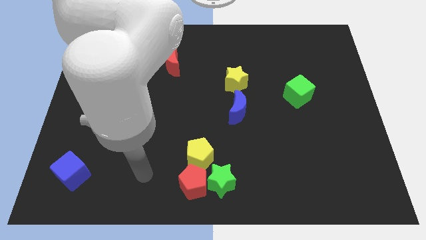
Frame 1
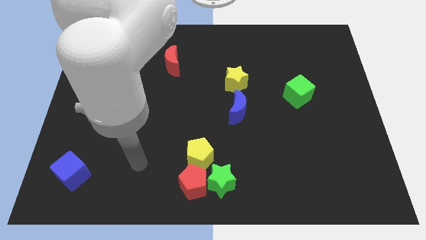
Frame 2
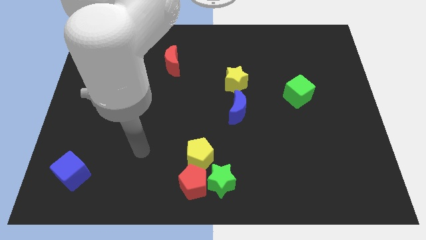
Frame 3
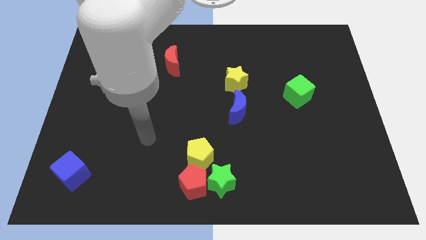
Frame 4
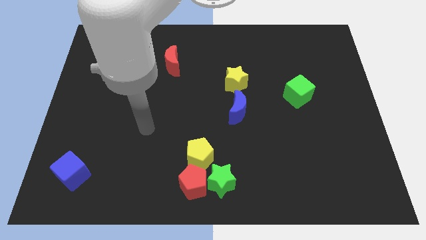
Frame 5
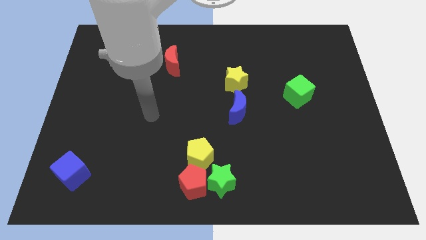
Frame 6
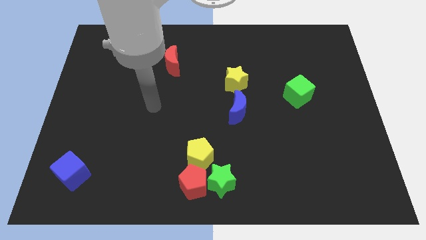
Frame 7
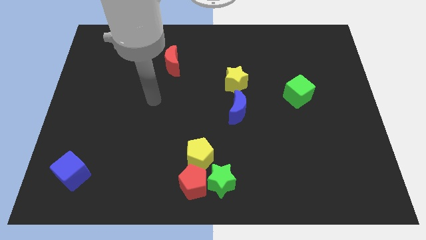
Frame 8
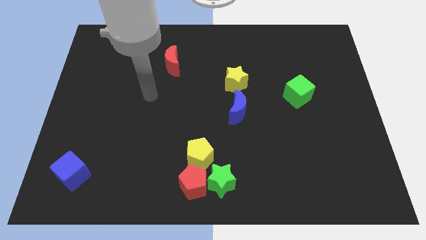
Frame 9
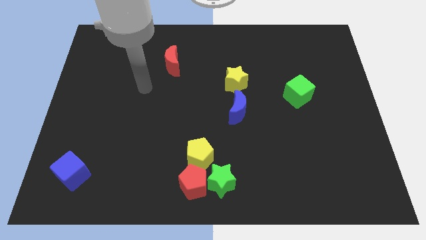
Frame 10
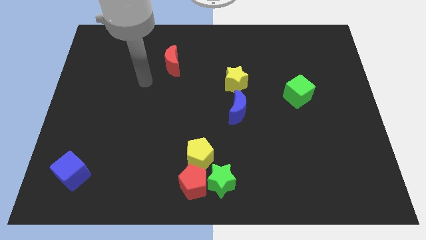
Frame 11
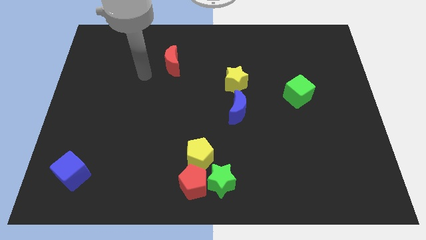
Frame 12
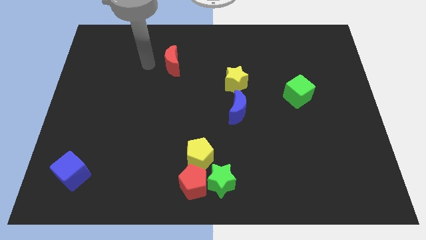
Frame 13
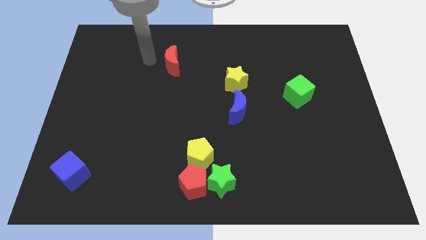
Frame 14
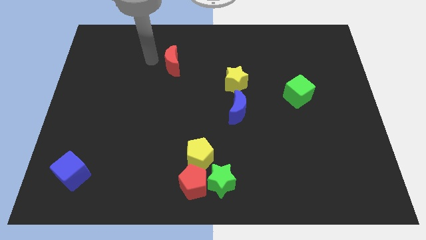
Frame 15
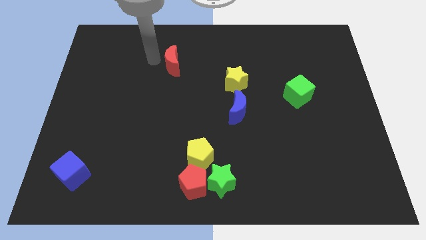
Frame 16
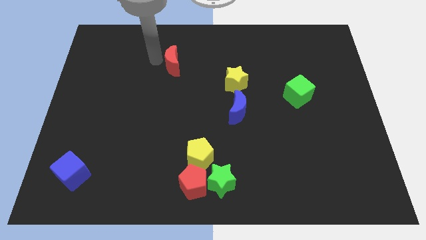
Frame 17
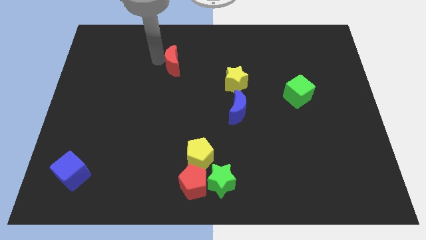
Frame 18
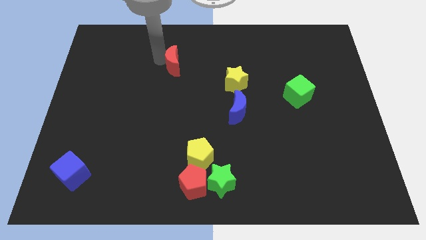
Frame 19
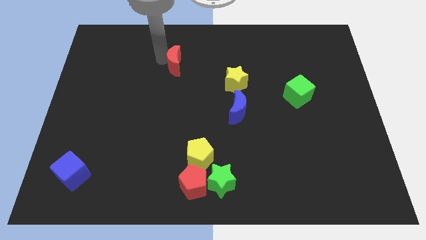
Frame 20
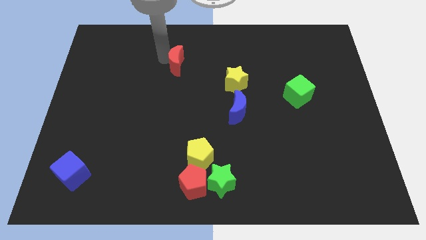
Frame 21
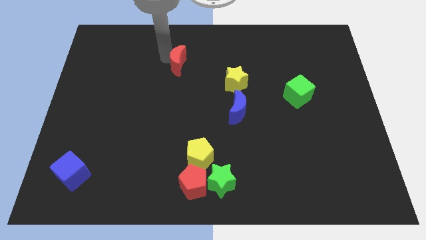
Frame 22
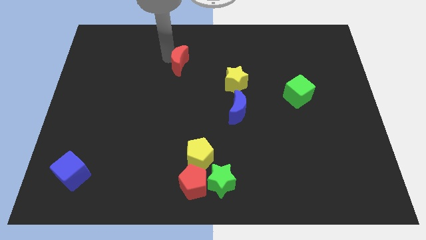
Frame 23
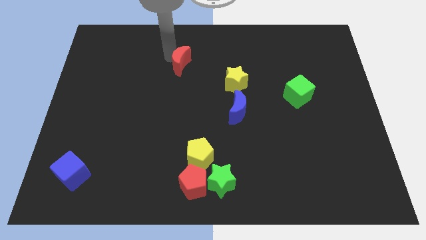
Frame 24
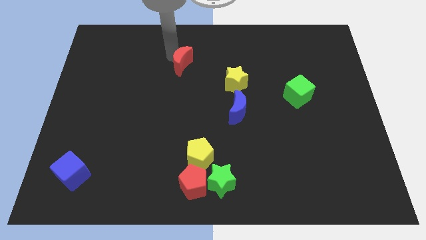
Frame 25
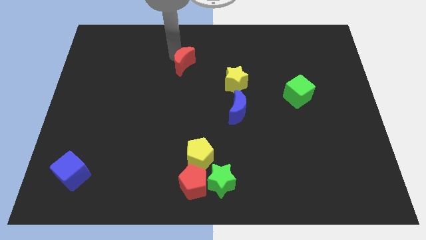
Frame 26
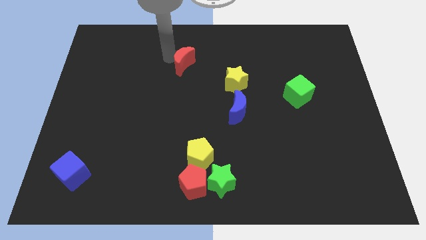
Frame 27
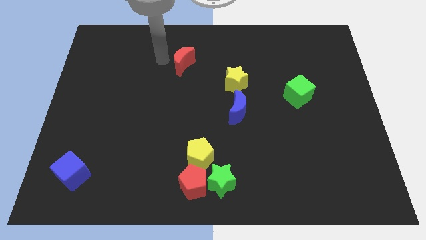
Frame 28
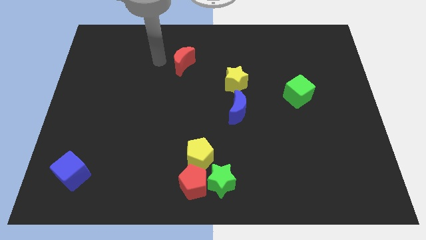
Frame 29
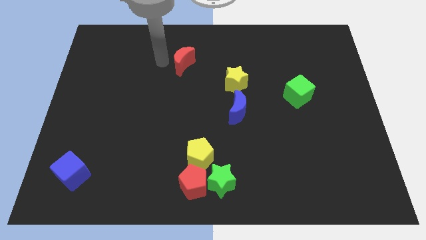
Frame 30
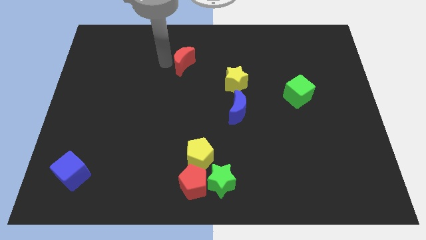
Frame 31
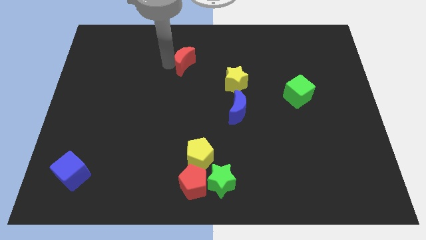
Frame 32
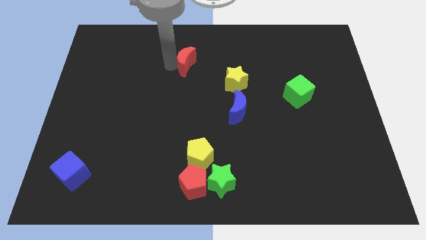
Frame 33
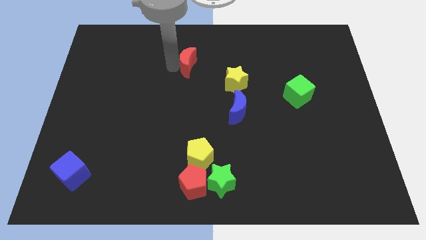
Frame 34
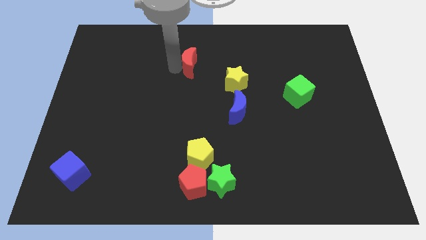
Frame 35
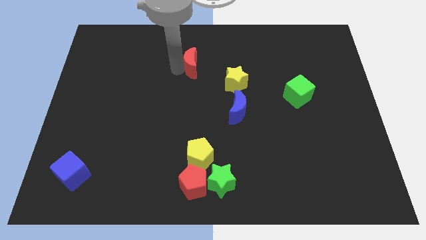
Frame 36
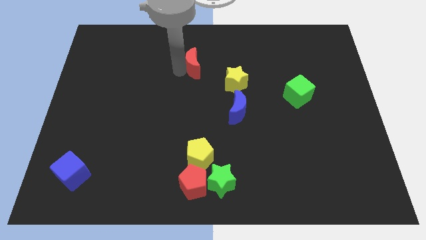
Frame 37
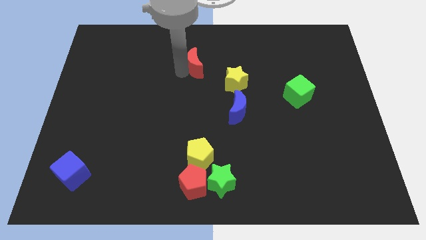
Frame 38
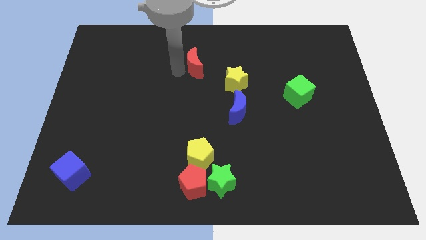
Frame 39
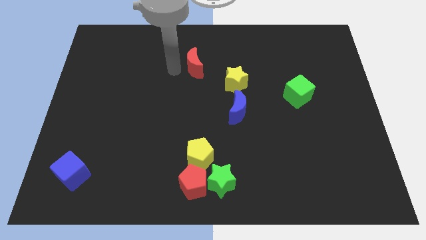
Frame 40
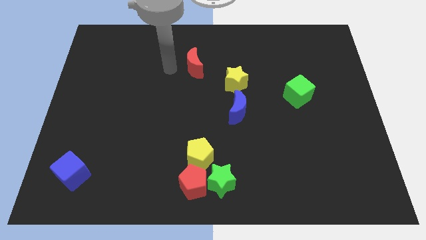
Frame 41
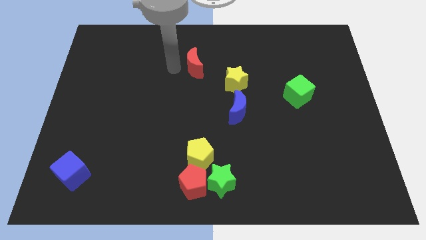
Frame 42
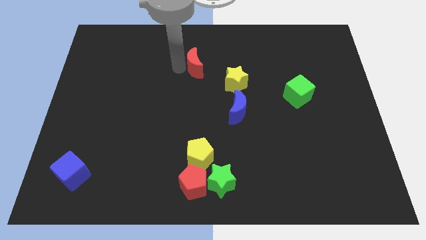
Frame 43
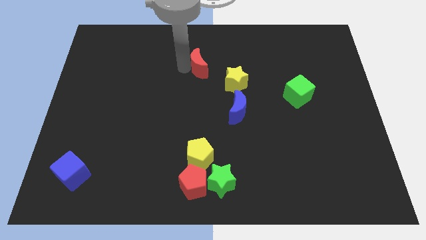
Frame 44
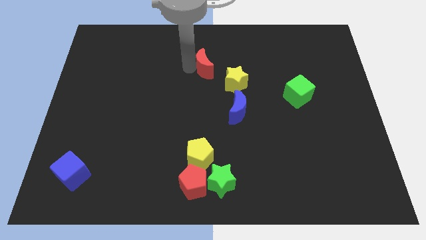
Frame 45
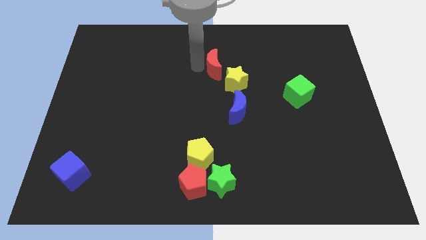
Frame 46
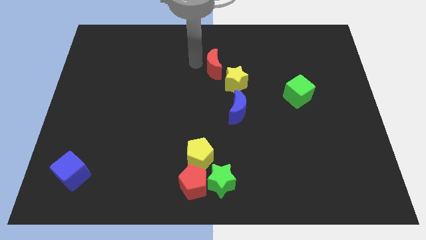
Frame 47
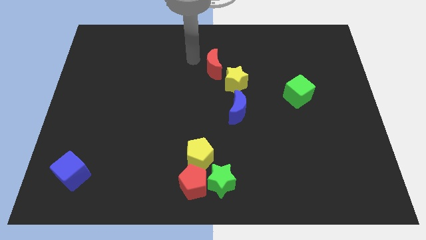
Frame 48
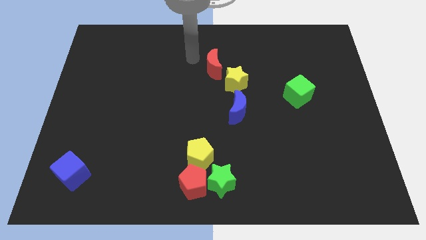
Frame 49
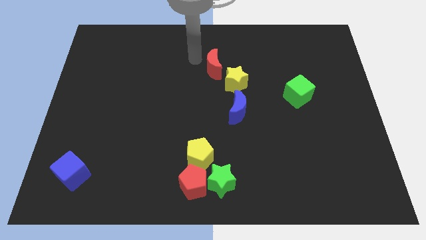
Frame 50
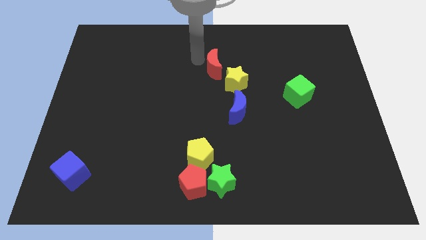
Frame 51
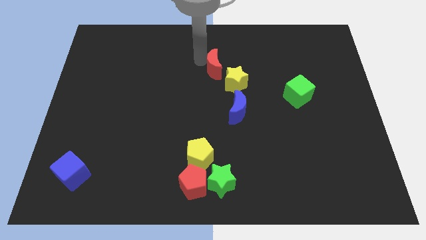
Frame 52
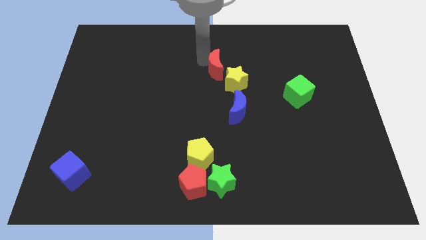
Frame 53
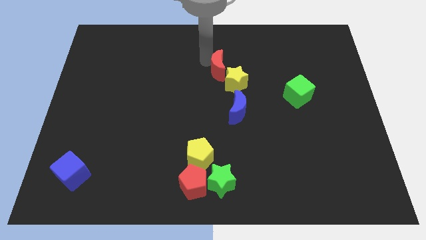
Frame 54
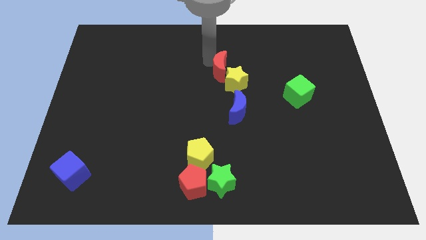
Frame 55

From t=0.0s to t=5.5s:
move the red moon to the top of the blue moon

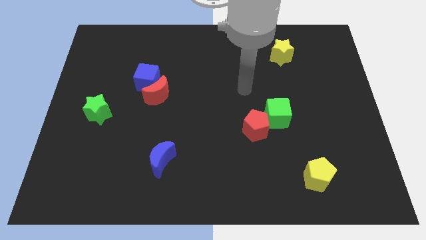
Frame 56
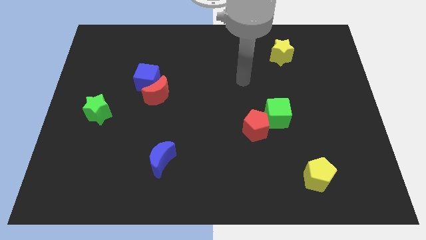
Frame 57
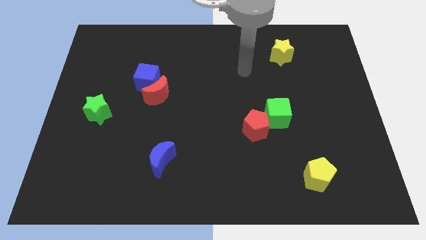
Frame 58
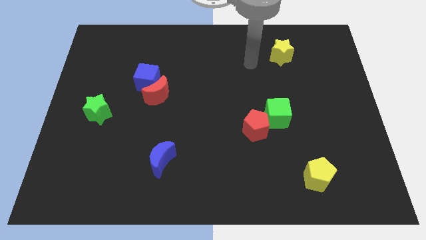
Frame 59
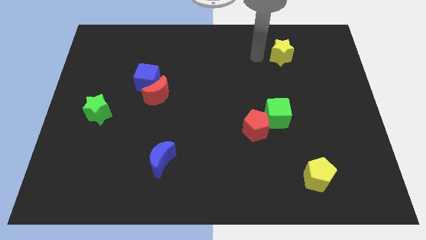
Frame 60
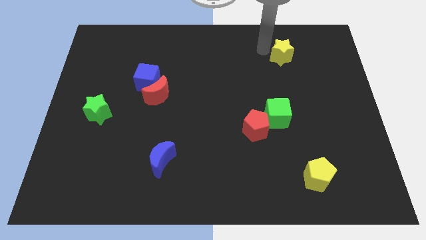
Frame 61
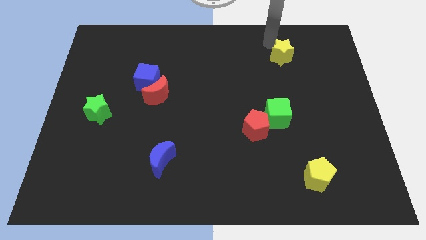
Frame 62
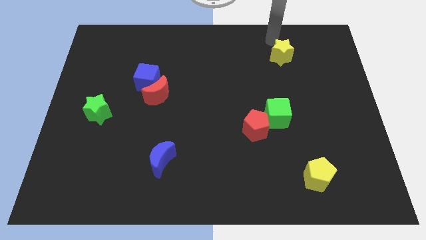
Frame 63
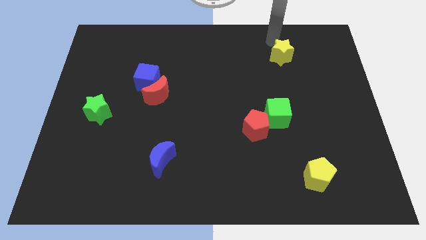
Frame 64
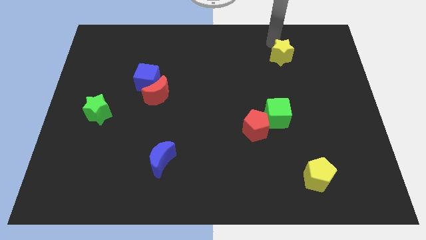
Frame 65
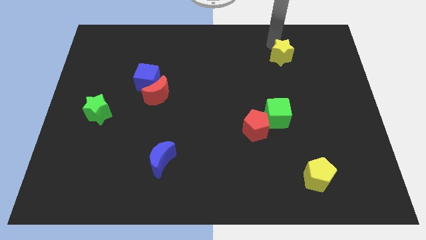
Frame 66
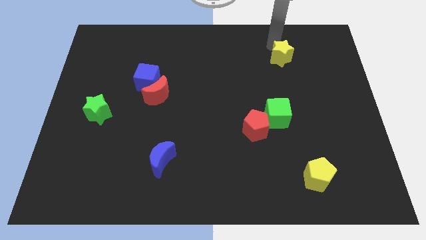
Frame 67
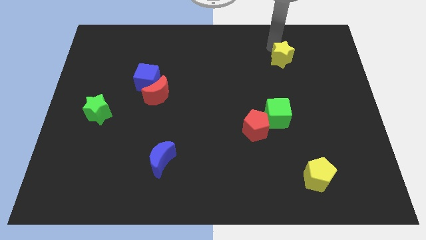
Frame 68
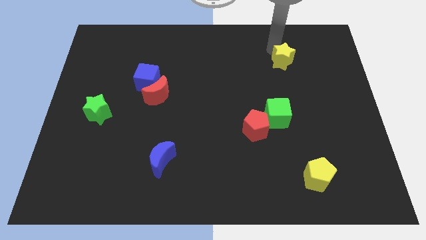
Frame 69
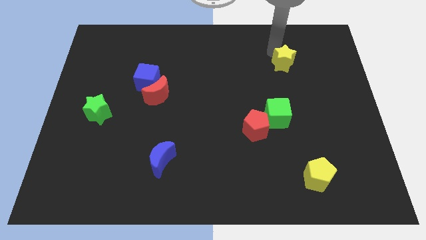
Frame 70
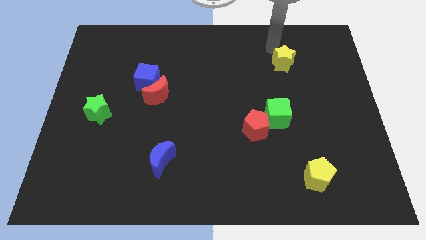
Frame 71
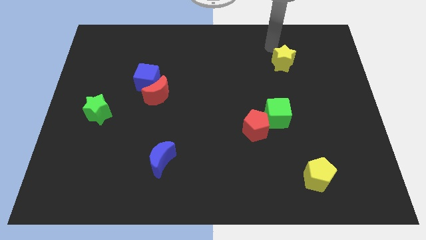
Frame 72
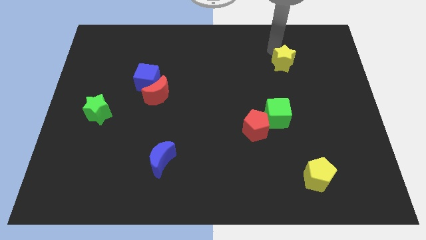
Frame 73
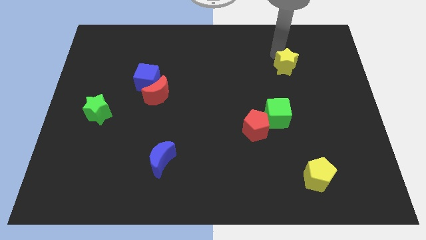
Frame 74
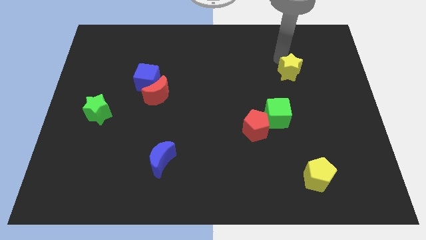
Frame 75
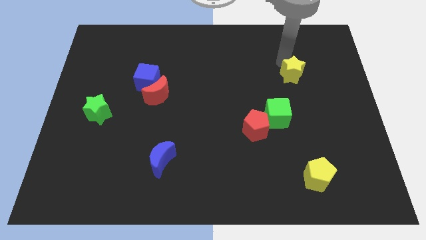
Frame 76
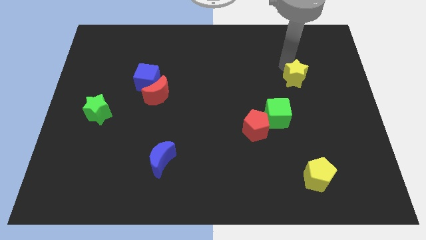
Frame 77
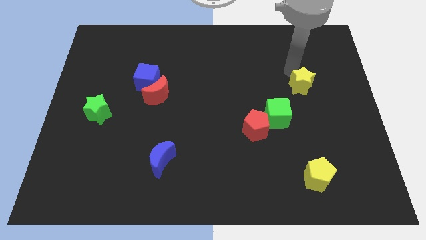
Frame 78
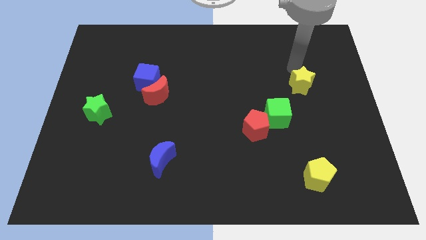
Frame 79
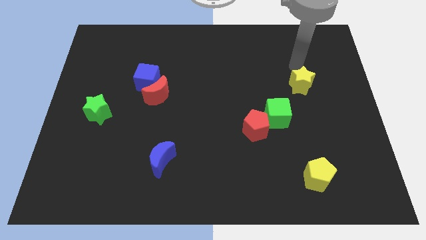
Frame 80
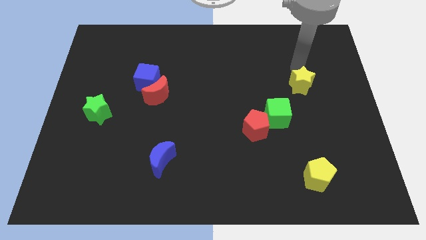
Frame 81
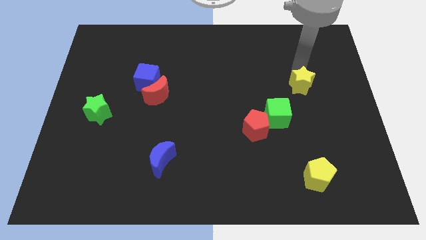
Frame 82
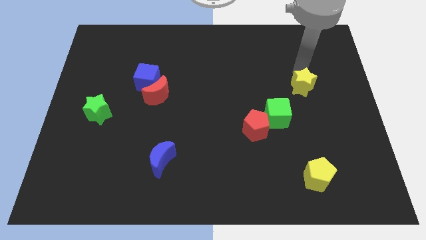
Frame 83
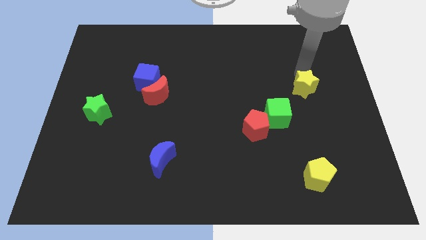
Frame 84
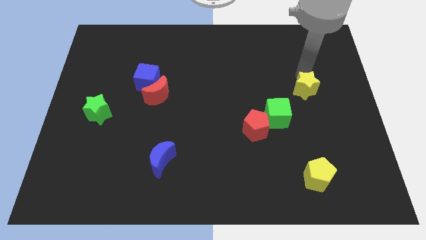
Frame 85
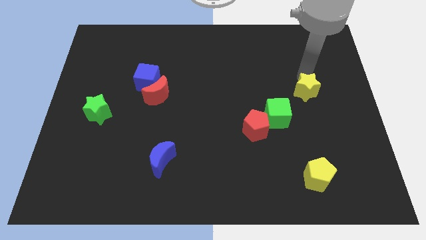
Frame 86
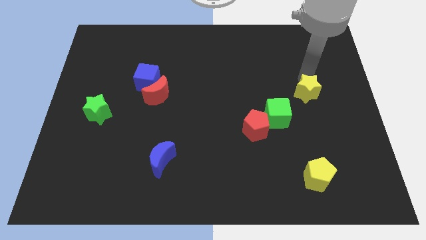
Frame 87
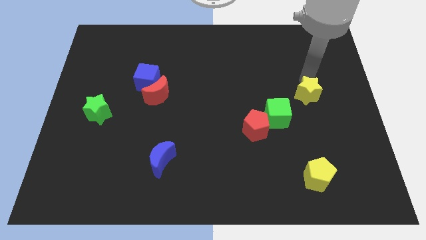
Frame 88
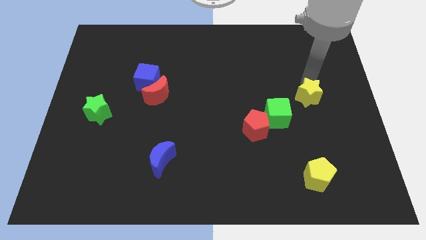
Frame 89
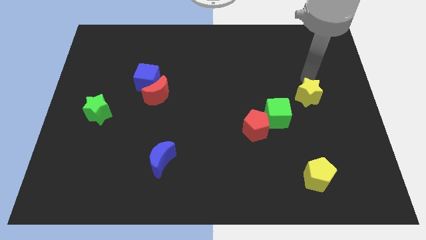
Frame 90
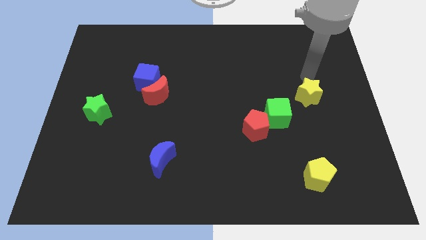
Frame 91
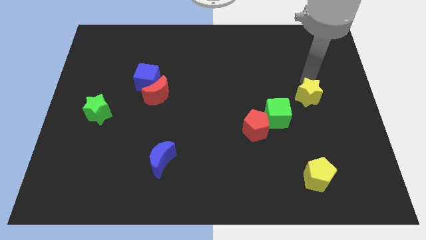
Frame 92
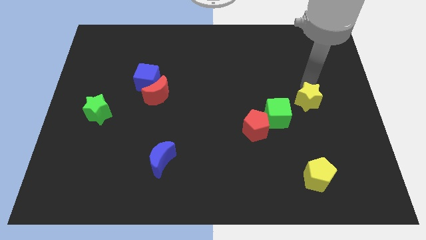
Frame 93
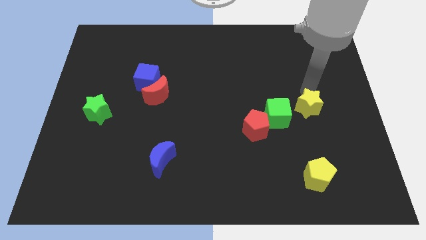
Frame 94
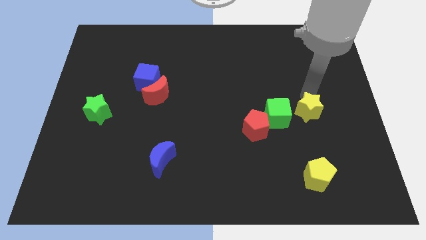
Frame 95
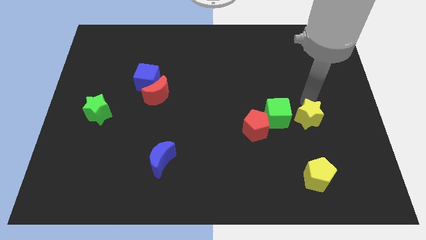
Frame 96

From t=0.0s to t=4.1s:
move the yellow star to the top of the yellow pentagon
